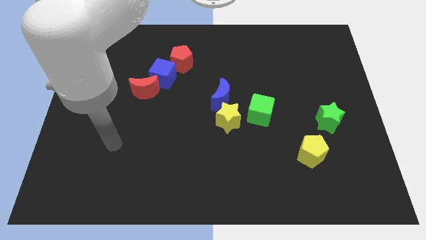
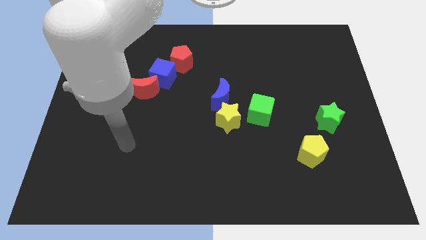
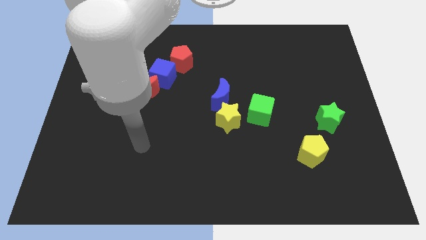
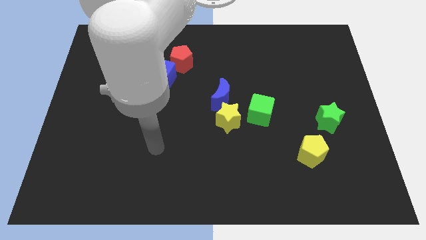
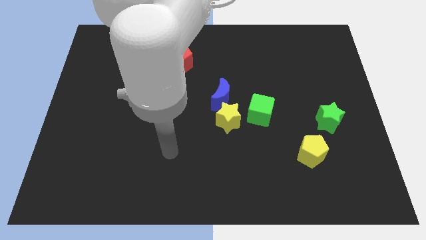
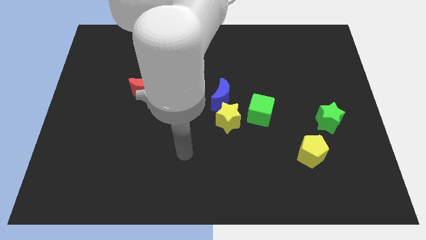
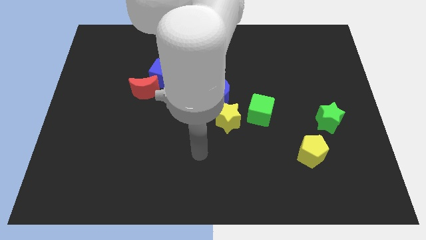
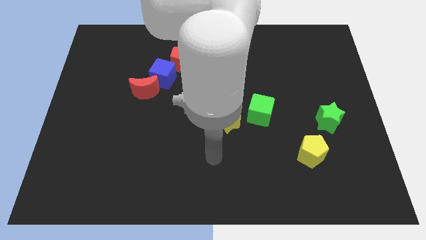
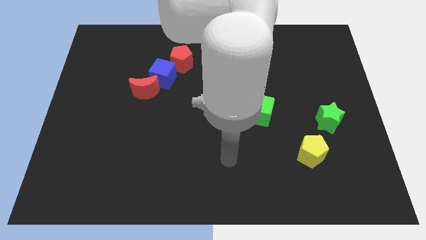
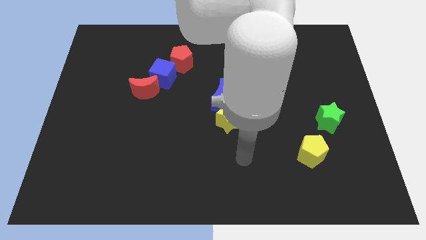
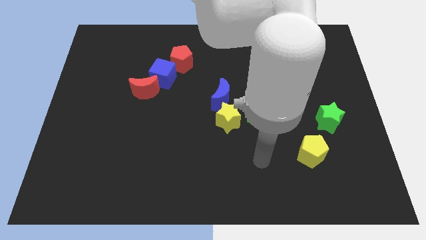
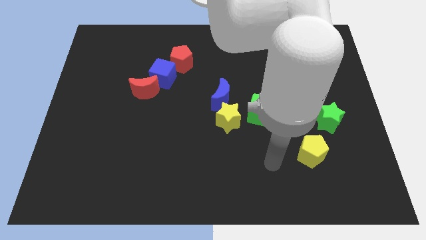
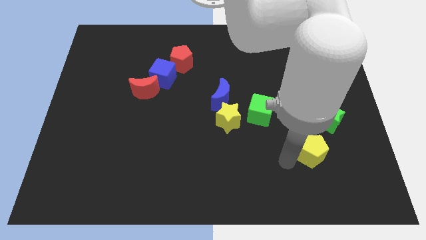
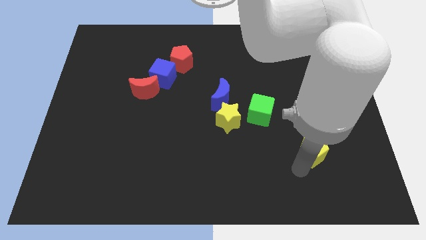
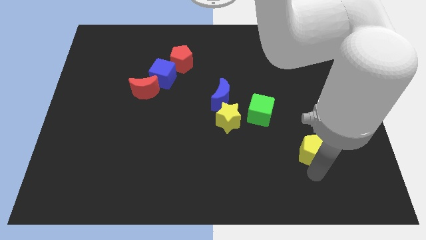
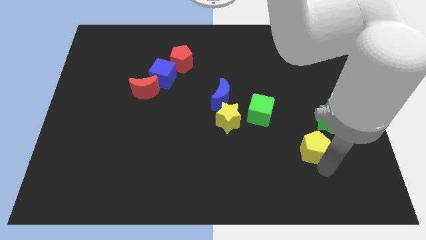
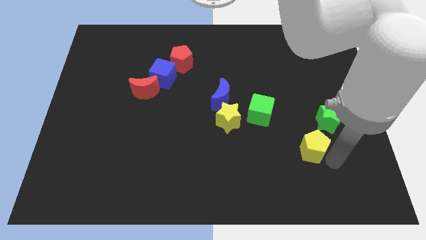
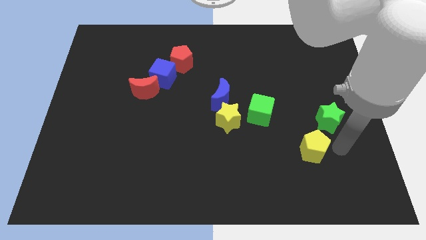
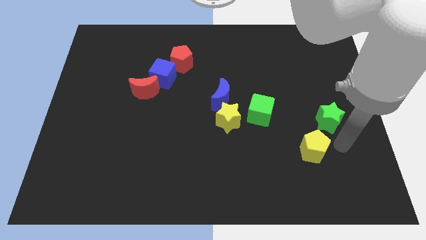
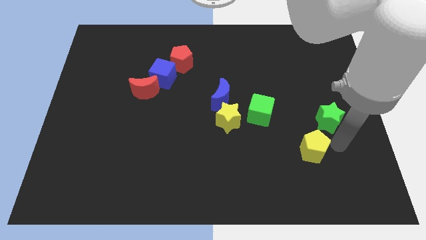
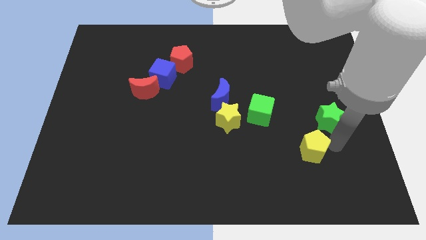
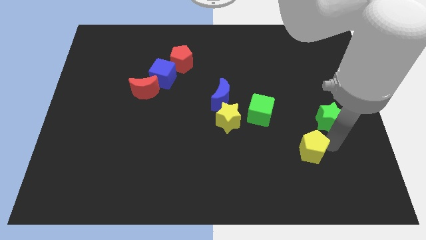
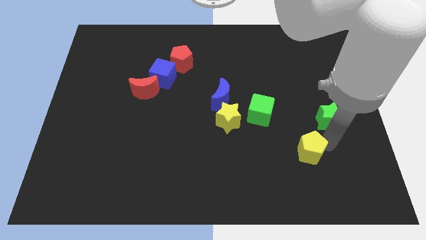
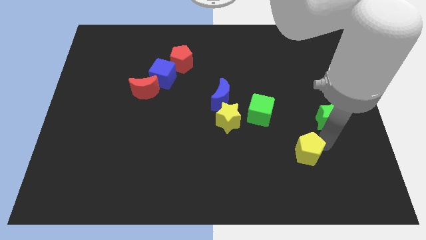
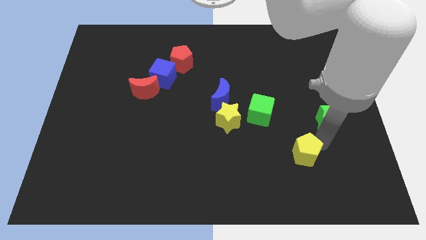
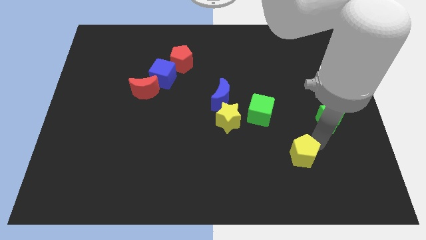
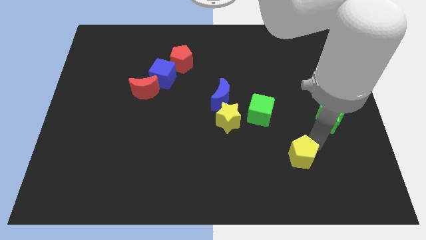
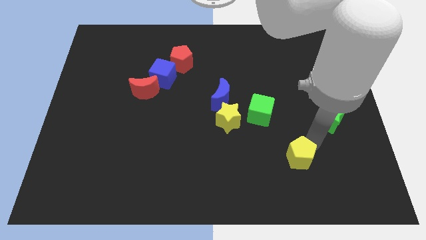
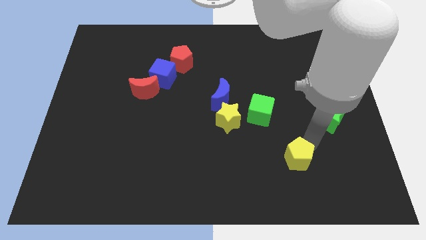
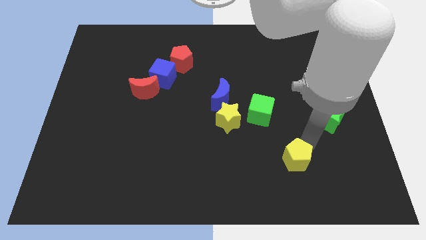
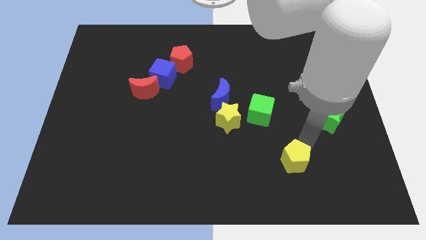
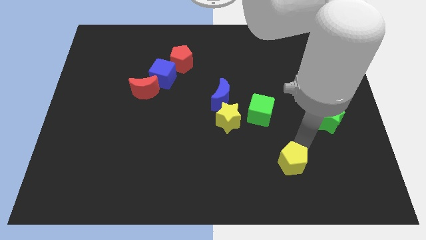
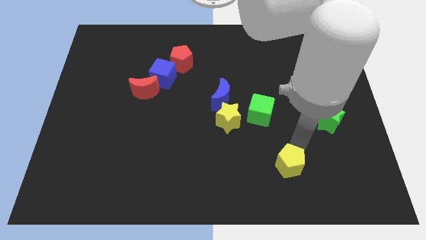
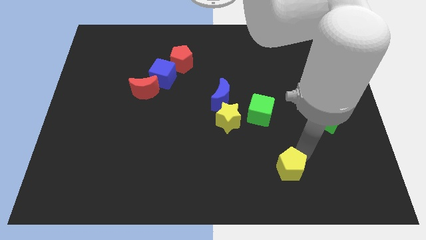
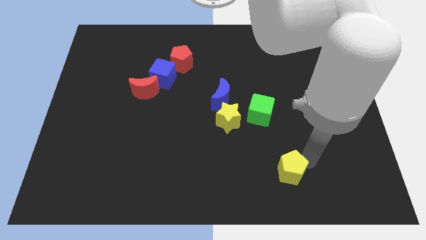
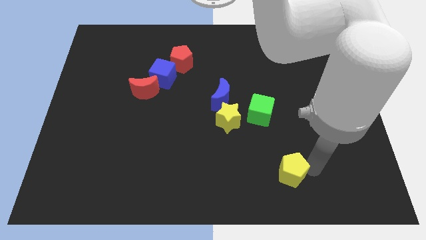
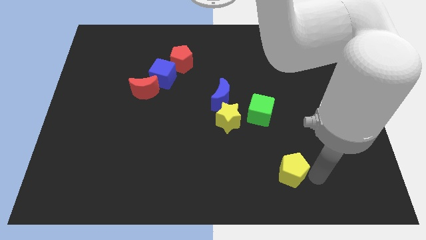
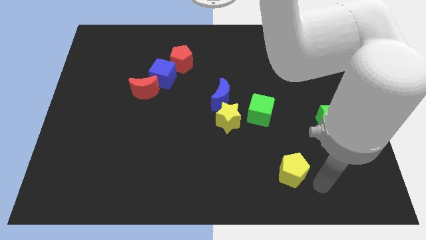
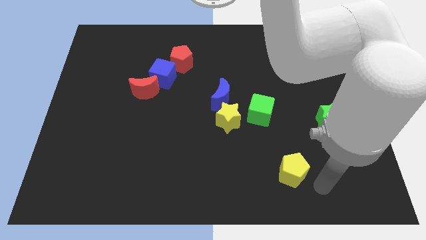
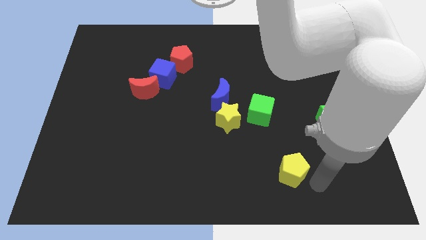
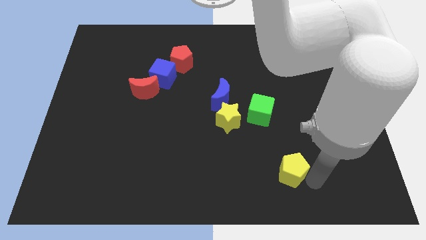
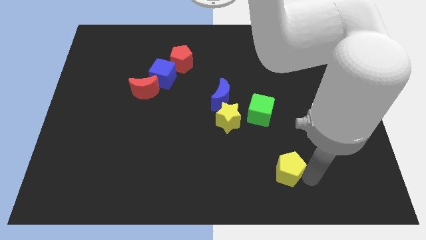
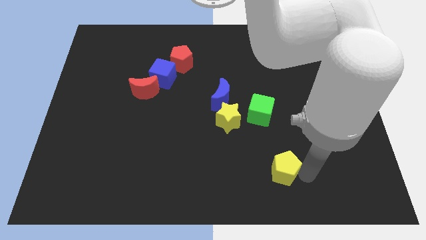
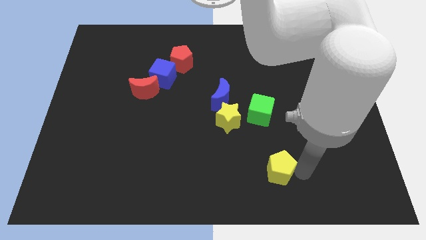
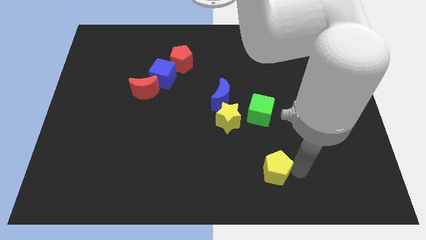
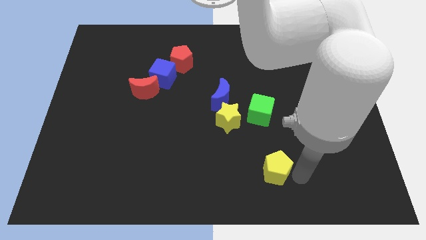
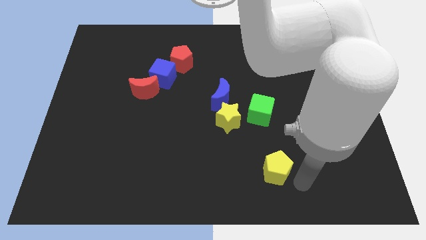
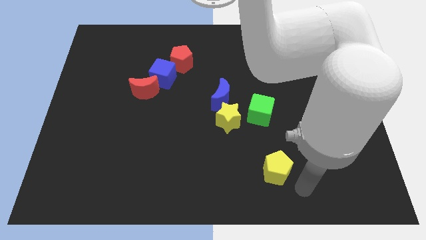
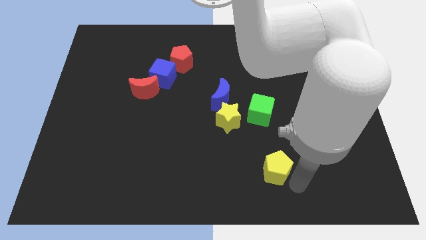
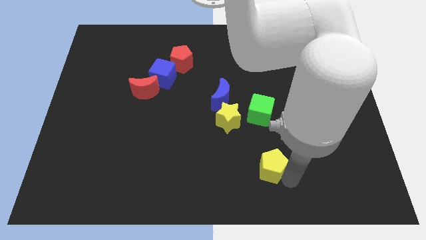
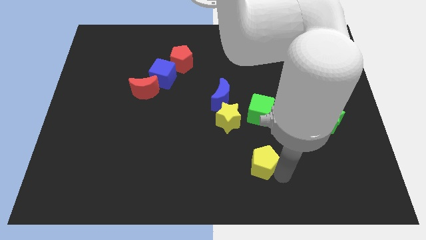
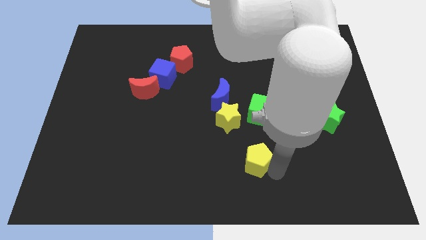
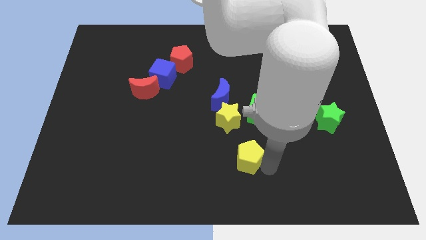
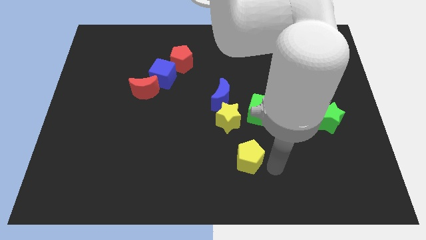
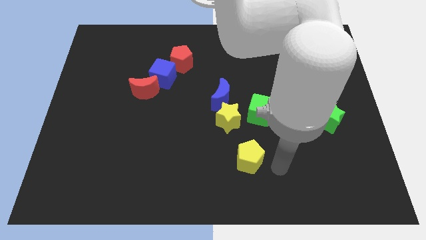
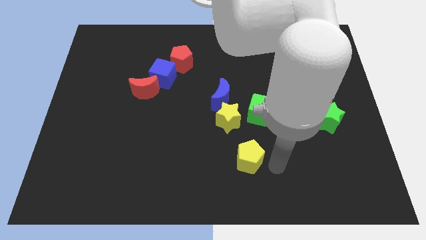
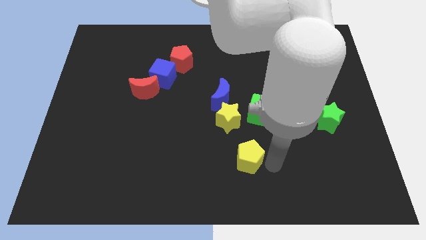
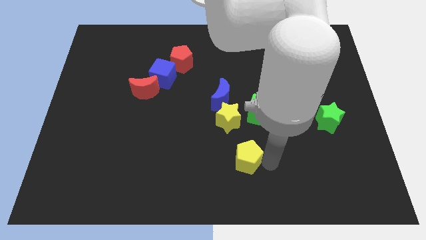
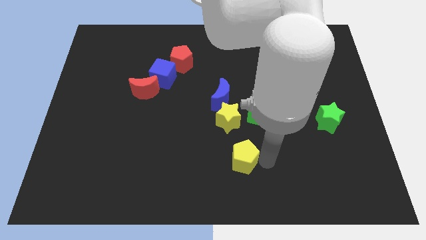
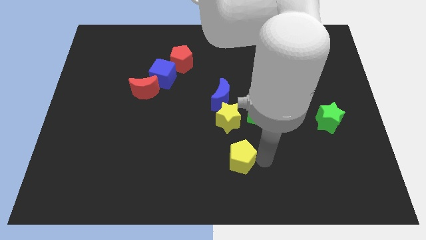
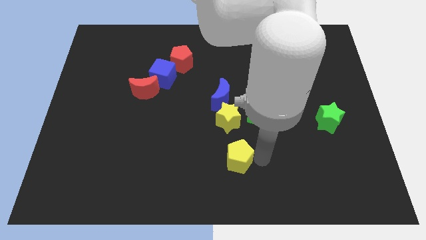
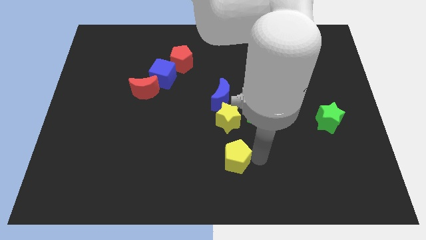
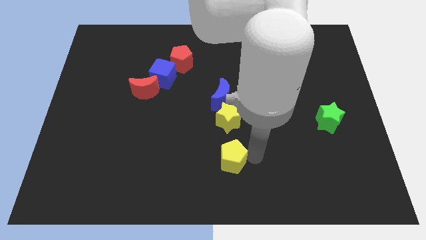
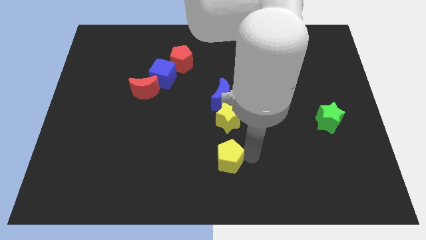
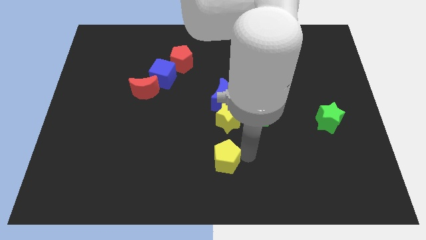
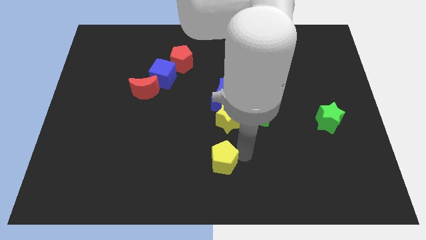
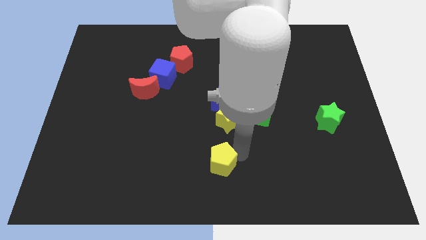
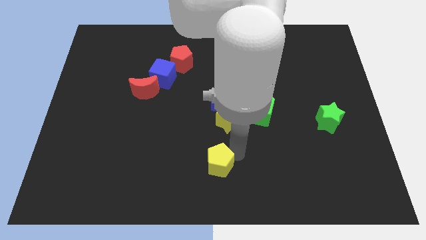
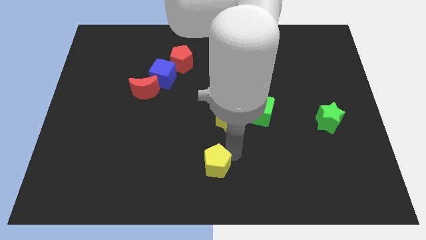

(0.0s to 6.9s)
move the yellow pentagon left

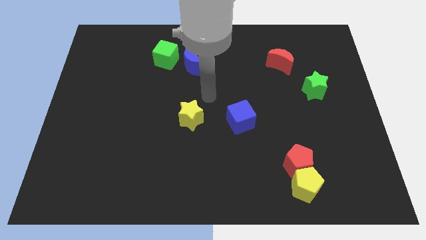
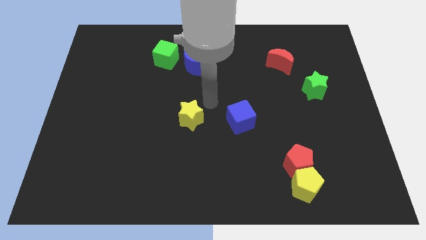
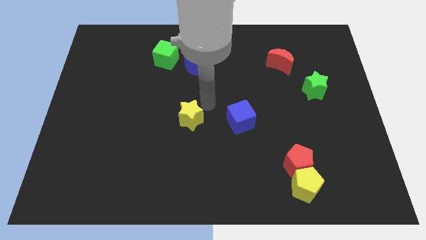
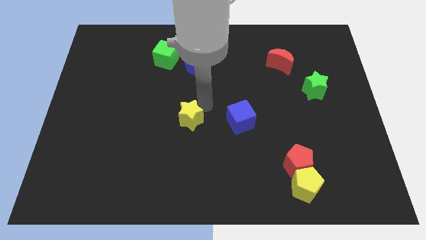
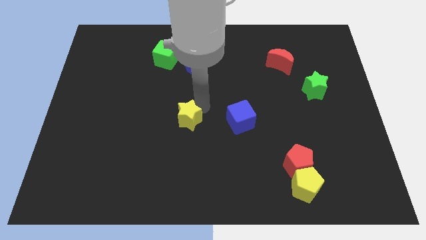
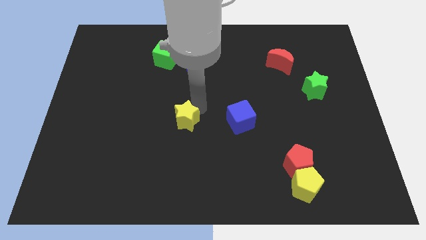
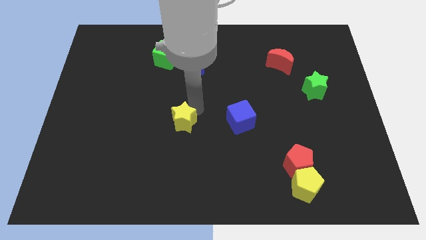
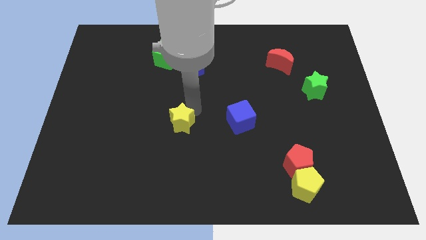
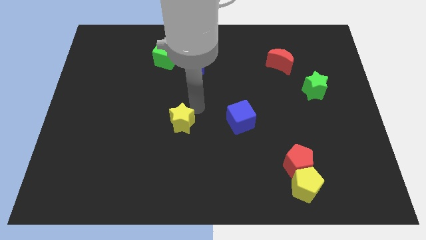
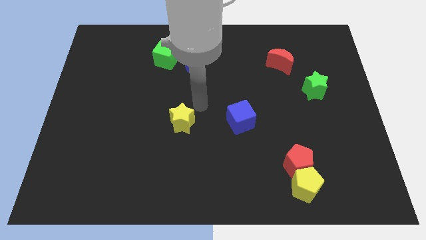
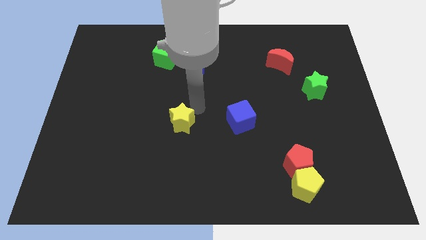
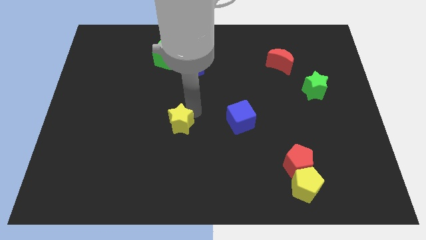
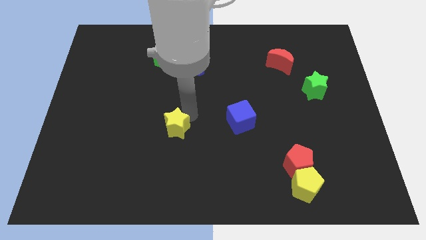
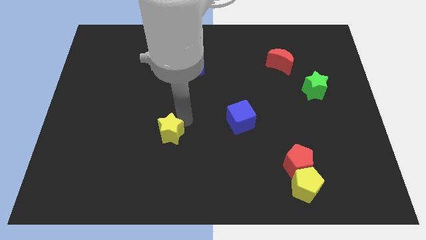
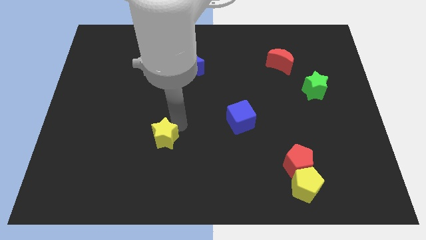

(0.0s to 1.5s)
slightly move the yellow star down and left
